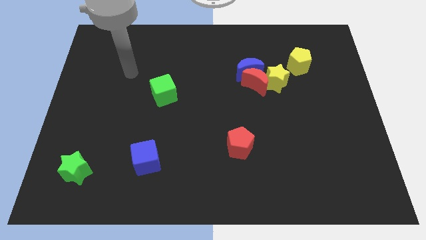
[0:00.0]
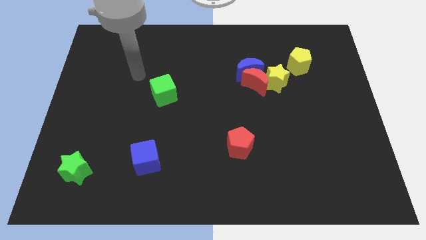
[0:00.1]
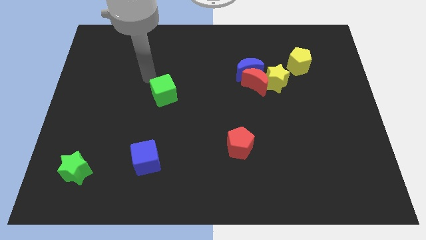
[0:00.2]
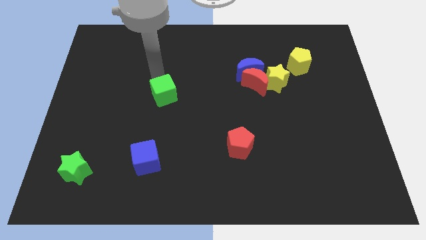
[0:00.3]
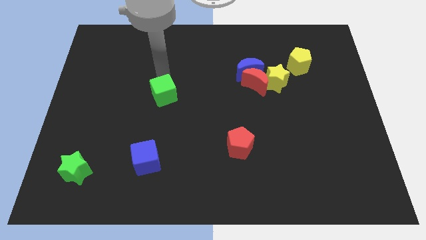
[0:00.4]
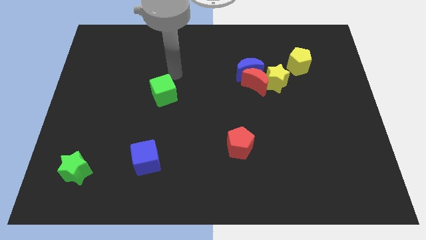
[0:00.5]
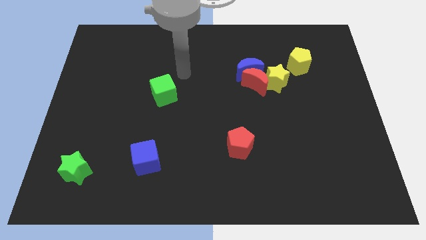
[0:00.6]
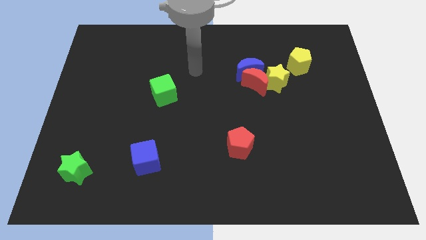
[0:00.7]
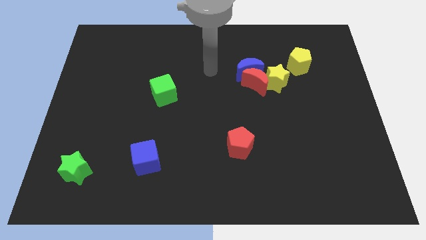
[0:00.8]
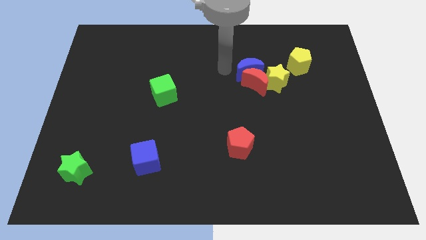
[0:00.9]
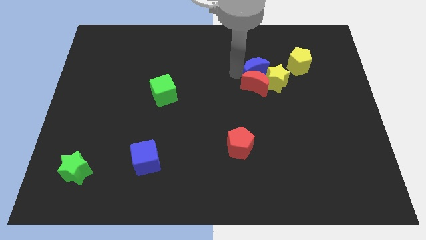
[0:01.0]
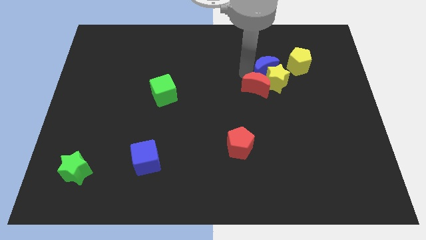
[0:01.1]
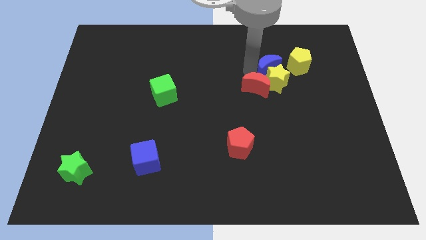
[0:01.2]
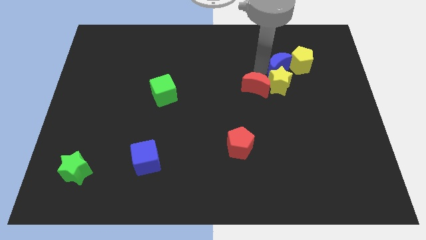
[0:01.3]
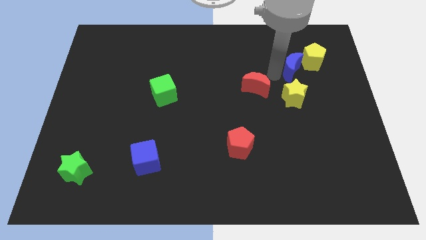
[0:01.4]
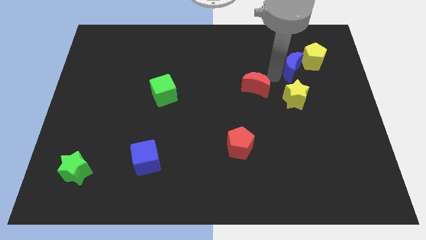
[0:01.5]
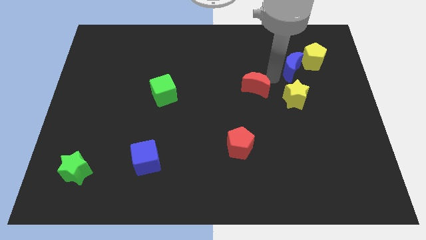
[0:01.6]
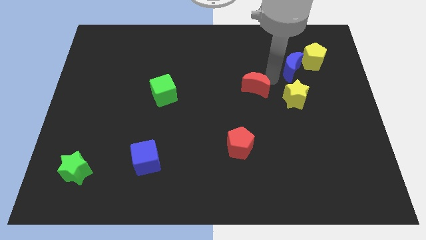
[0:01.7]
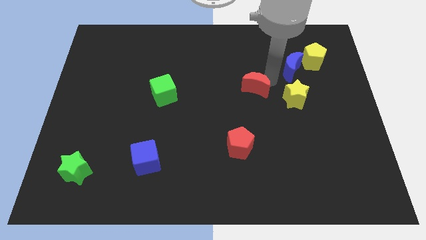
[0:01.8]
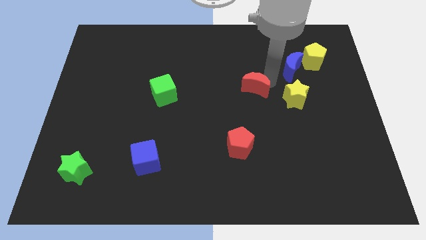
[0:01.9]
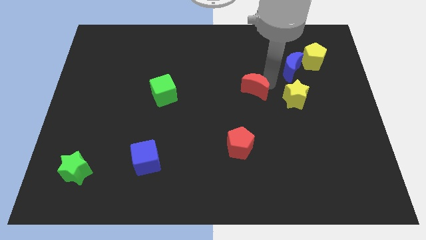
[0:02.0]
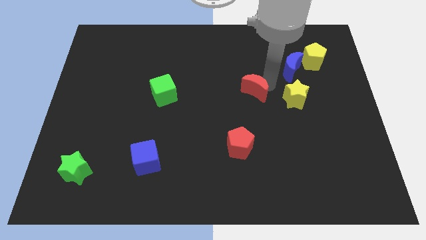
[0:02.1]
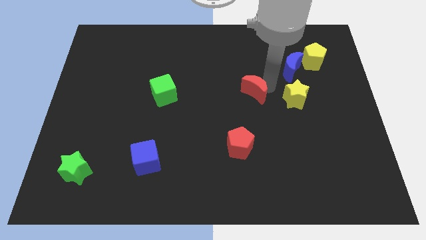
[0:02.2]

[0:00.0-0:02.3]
pull the red moon apart from the blue moon and yellow star

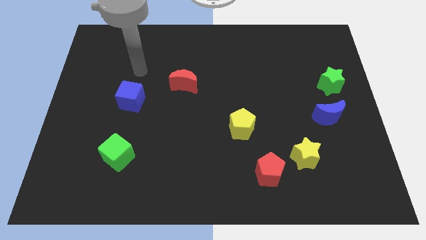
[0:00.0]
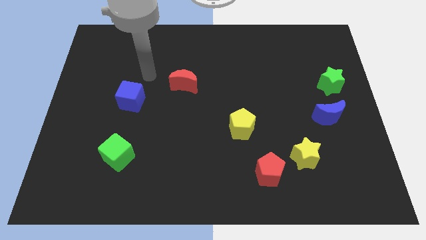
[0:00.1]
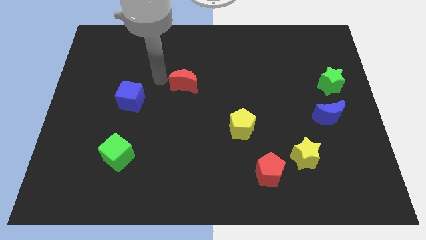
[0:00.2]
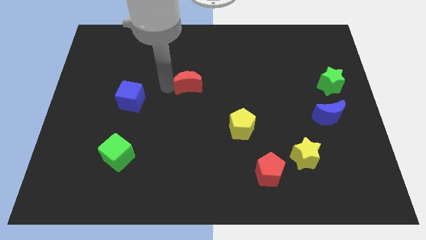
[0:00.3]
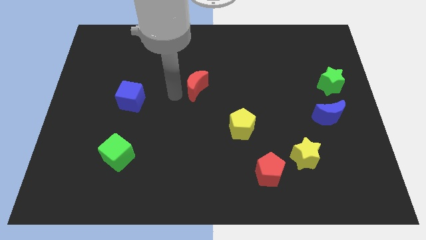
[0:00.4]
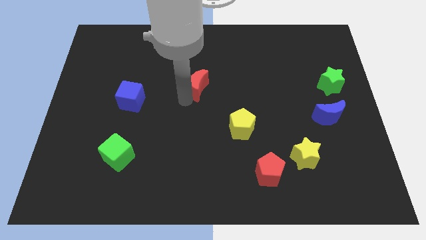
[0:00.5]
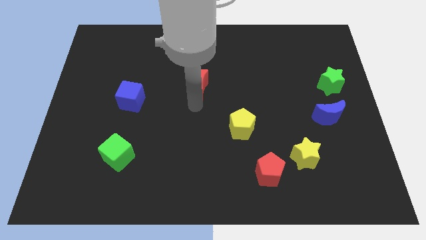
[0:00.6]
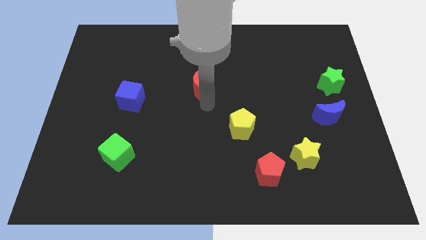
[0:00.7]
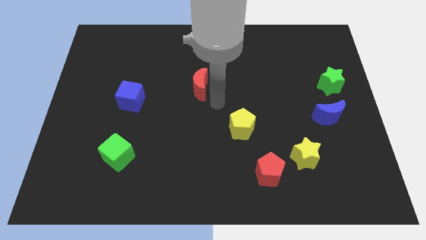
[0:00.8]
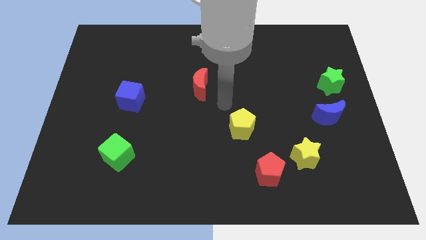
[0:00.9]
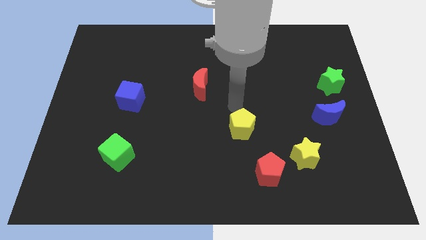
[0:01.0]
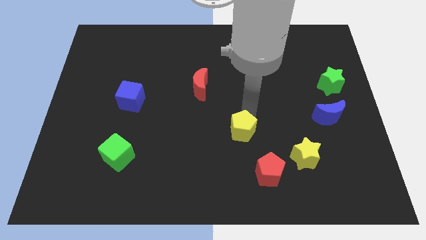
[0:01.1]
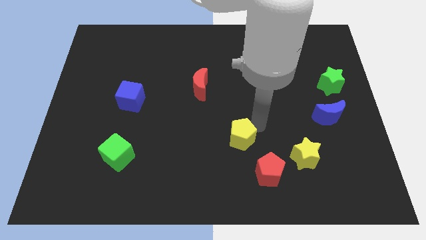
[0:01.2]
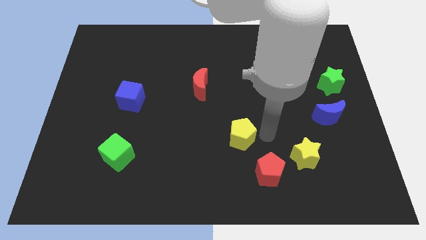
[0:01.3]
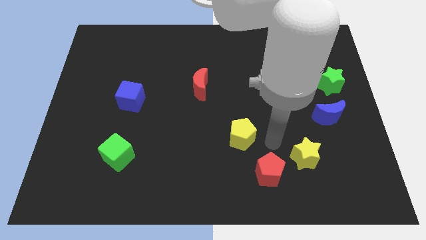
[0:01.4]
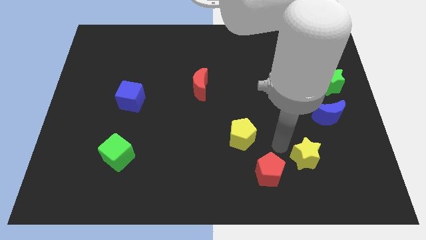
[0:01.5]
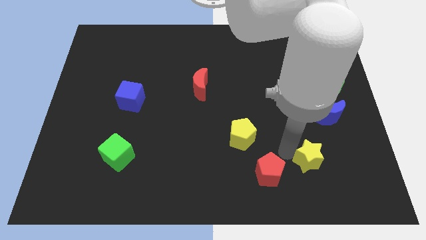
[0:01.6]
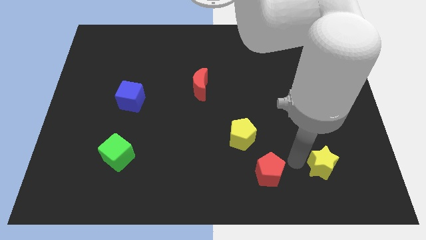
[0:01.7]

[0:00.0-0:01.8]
separate the red pentagon from the yellow star

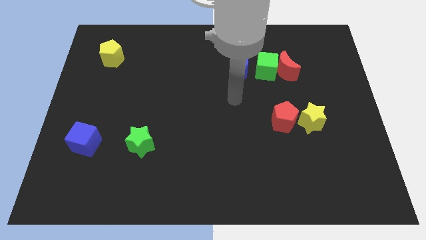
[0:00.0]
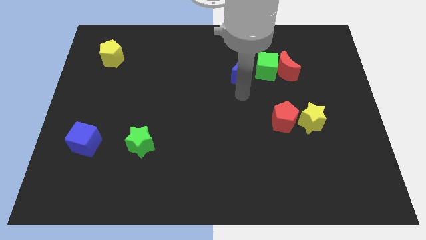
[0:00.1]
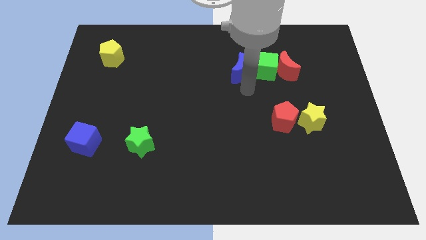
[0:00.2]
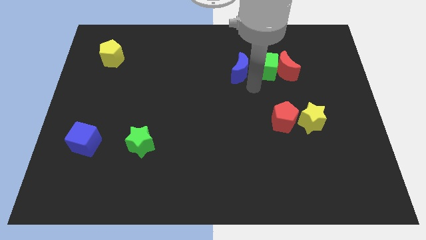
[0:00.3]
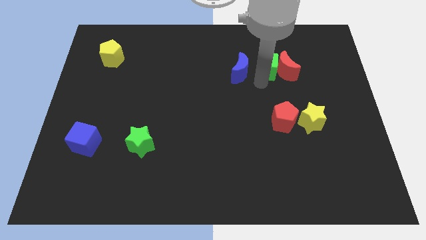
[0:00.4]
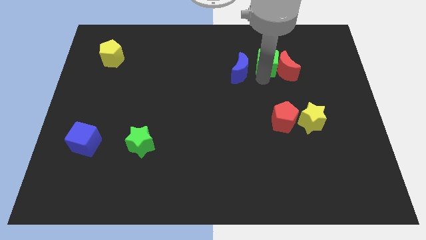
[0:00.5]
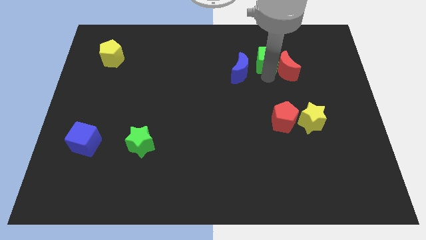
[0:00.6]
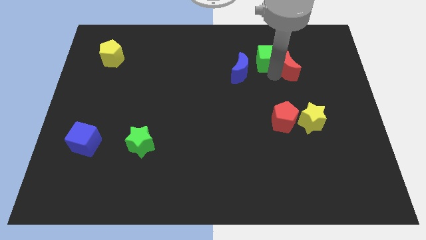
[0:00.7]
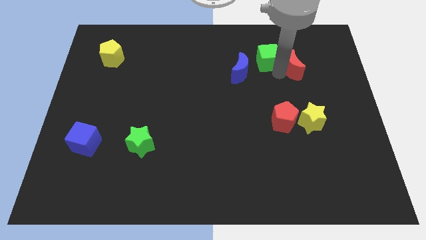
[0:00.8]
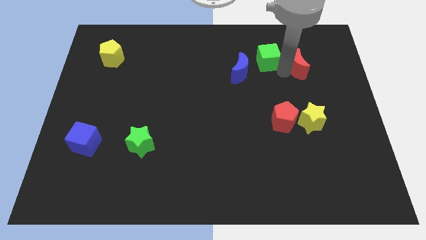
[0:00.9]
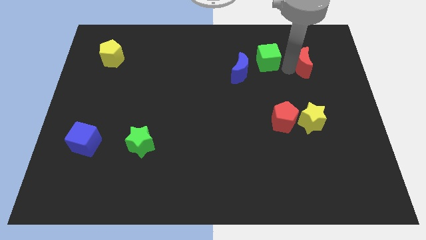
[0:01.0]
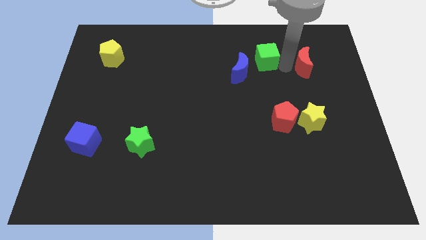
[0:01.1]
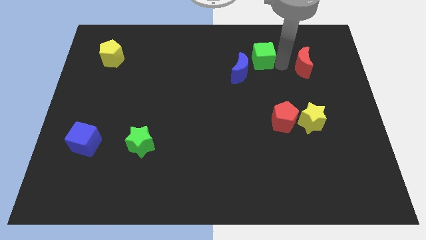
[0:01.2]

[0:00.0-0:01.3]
move the red moon away from the green cube

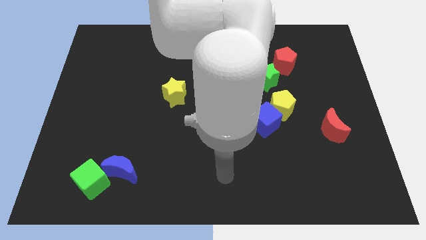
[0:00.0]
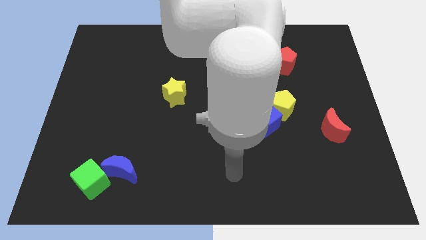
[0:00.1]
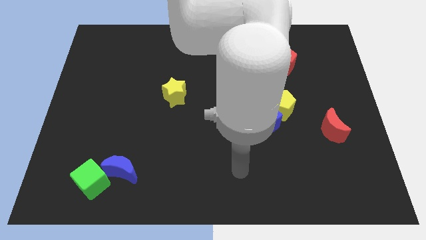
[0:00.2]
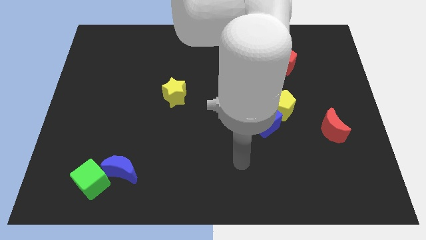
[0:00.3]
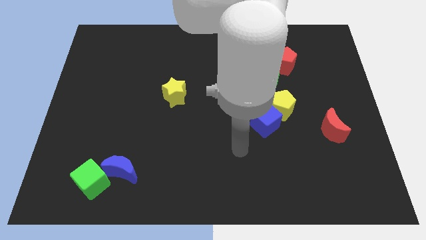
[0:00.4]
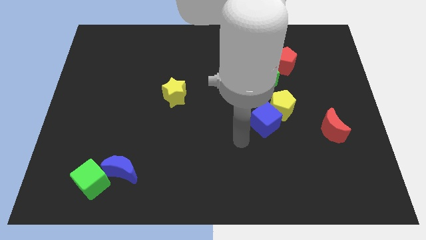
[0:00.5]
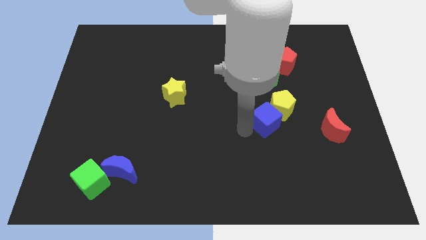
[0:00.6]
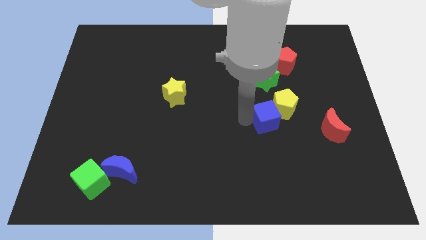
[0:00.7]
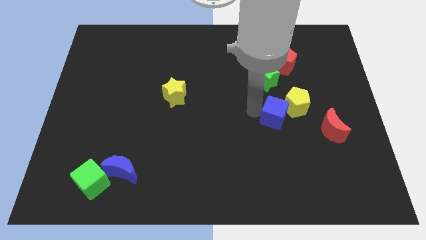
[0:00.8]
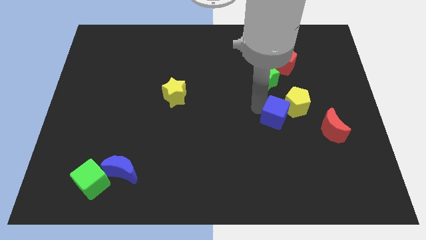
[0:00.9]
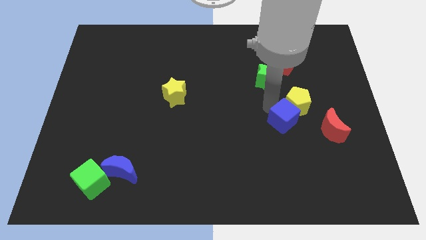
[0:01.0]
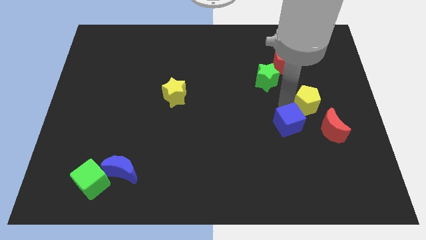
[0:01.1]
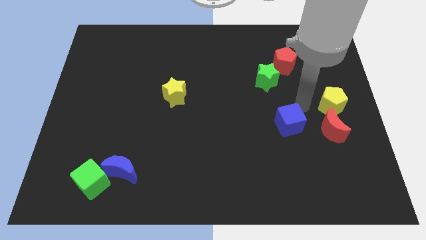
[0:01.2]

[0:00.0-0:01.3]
pull the blue cube apart from the yellow pentagon

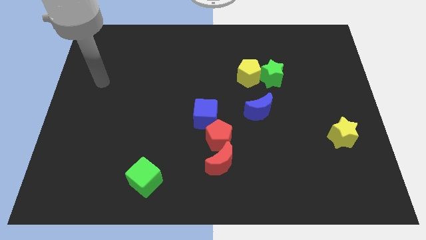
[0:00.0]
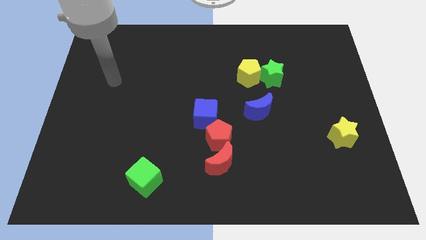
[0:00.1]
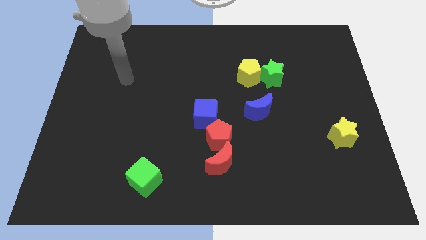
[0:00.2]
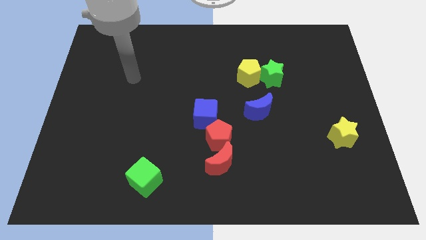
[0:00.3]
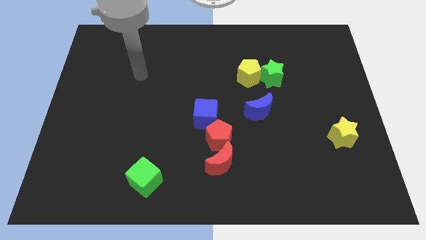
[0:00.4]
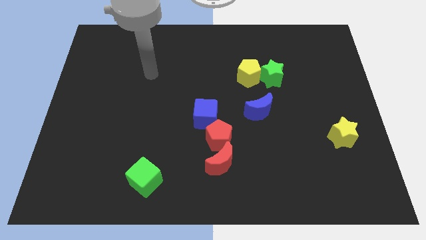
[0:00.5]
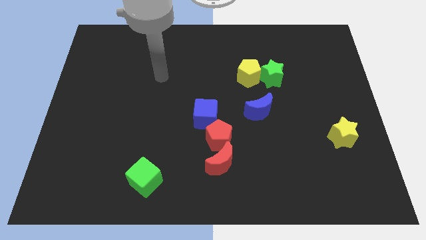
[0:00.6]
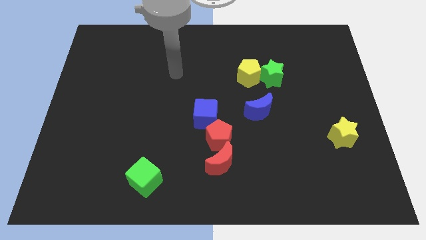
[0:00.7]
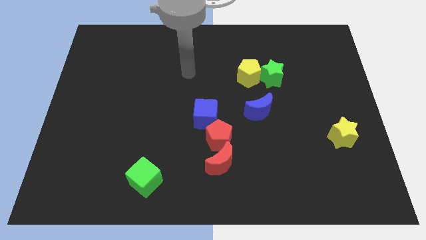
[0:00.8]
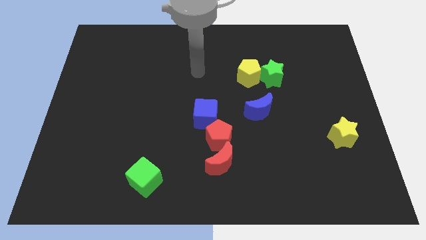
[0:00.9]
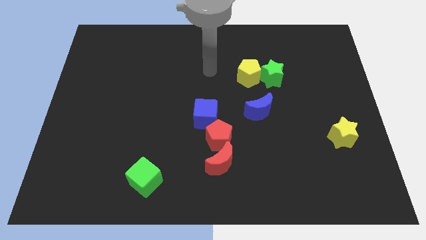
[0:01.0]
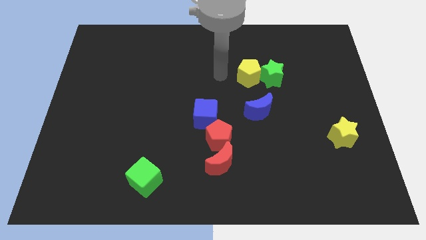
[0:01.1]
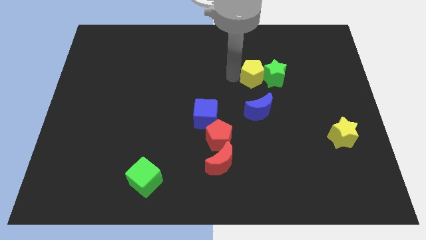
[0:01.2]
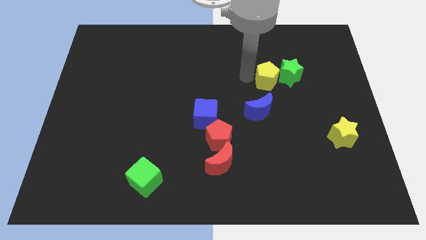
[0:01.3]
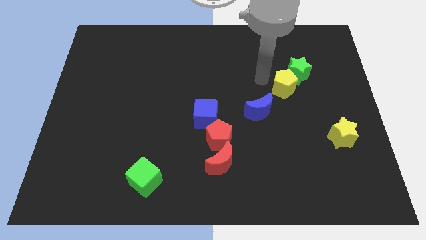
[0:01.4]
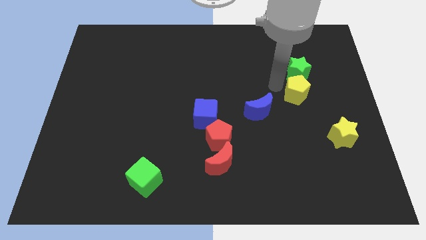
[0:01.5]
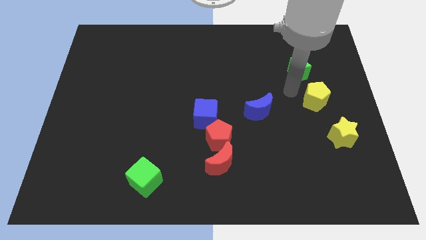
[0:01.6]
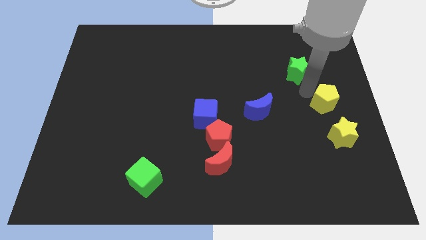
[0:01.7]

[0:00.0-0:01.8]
separate the green star from the yellow pentagon

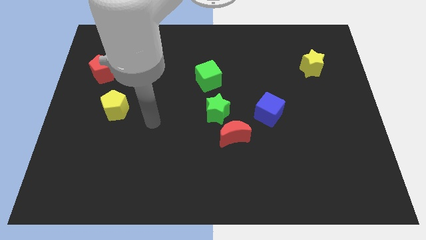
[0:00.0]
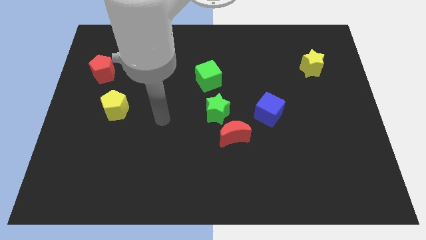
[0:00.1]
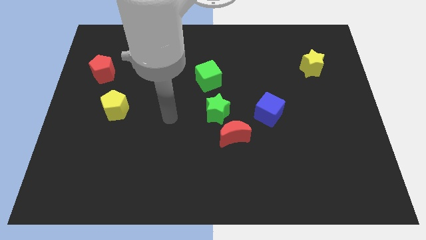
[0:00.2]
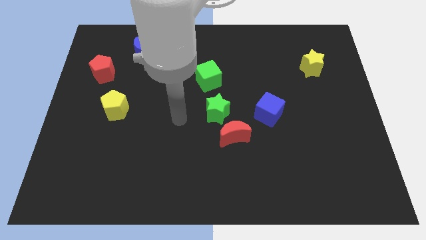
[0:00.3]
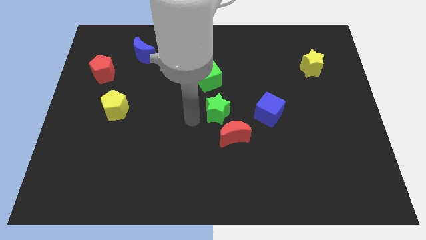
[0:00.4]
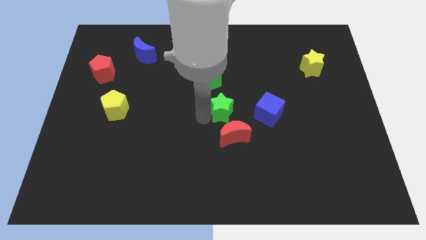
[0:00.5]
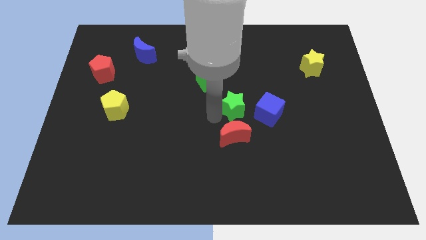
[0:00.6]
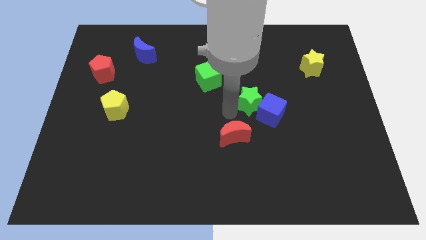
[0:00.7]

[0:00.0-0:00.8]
pull the red moon apart from the green star
